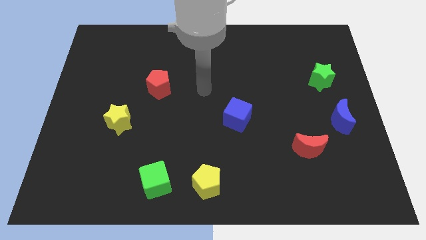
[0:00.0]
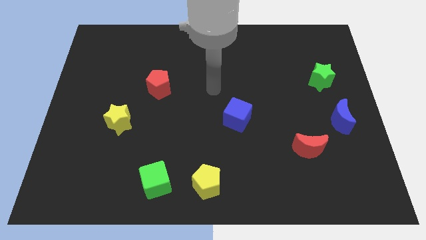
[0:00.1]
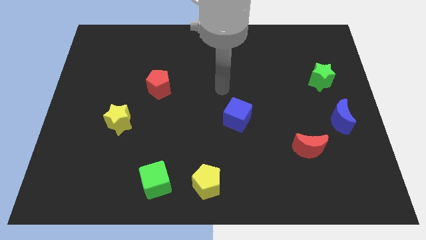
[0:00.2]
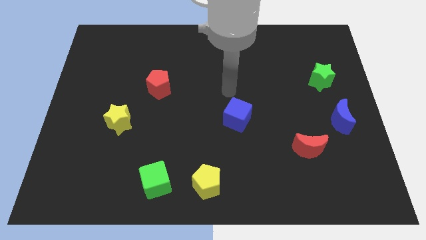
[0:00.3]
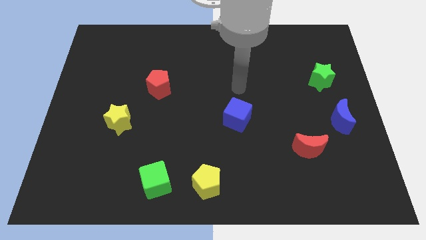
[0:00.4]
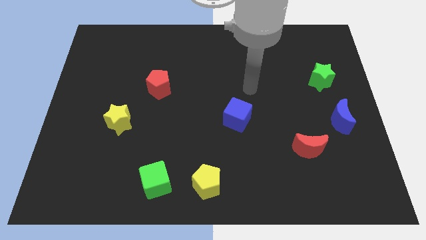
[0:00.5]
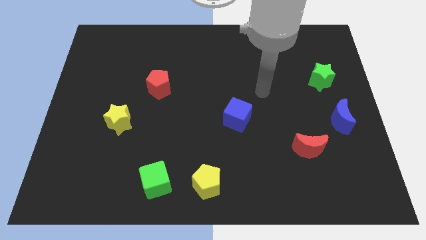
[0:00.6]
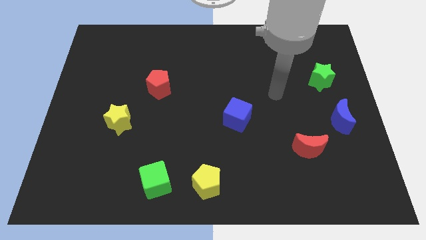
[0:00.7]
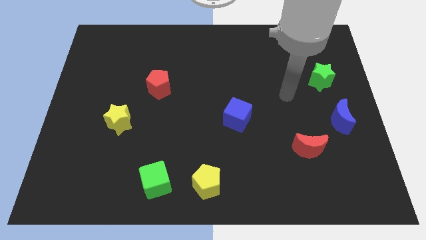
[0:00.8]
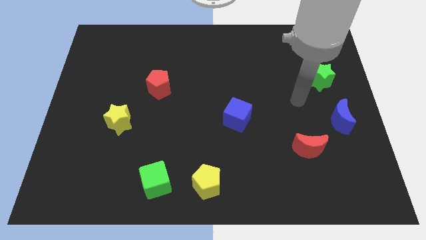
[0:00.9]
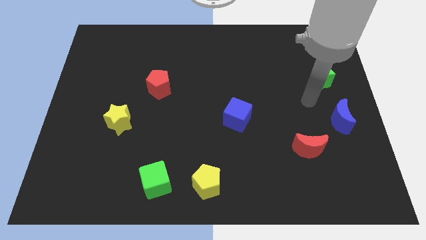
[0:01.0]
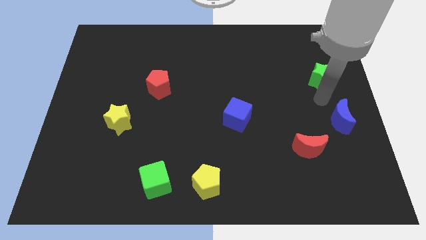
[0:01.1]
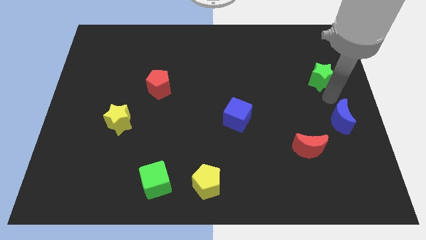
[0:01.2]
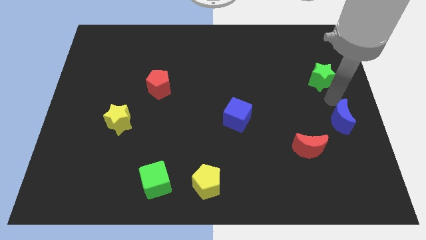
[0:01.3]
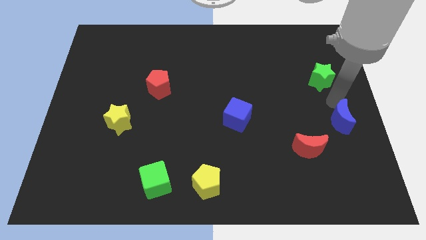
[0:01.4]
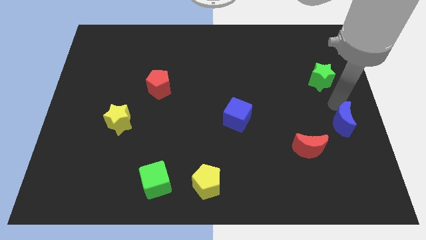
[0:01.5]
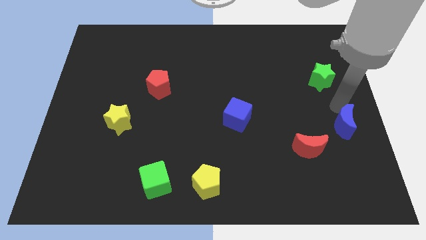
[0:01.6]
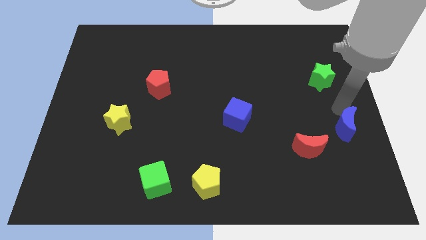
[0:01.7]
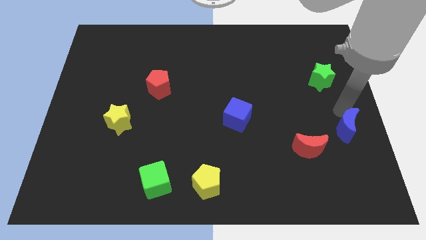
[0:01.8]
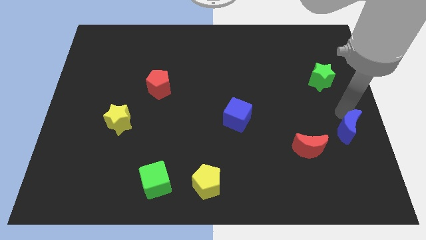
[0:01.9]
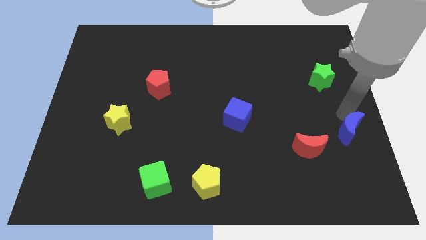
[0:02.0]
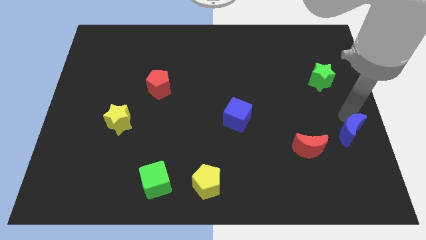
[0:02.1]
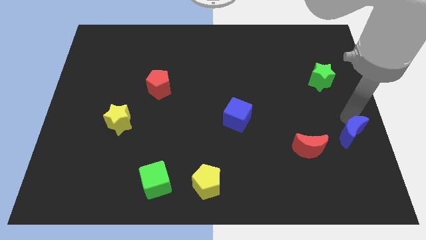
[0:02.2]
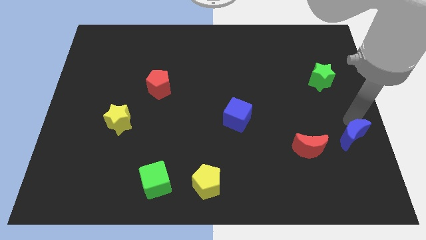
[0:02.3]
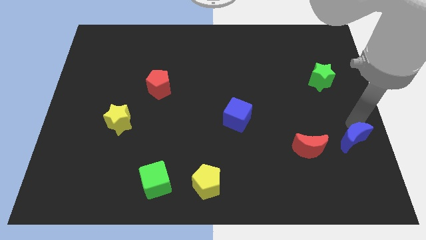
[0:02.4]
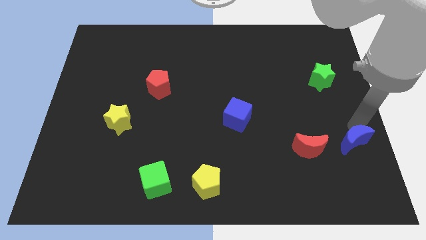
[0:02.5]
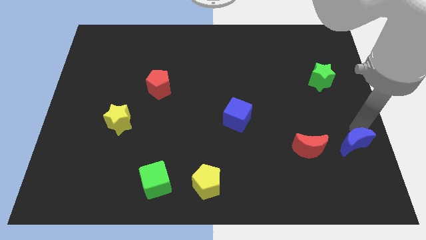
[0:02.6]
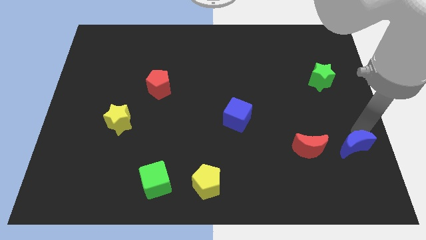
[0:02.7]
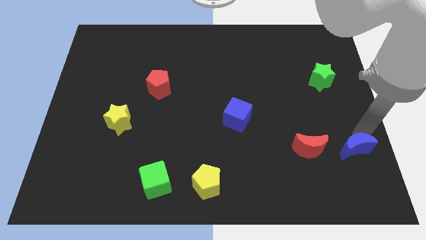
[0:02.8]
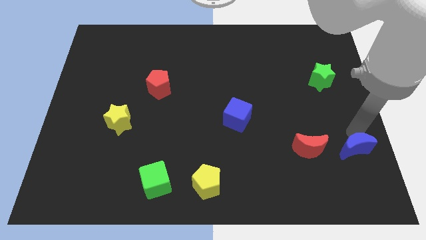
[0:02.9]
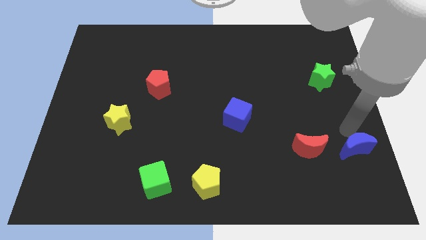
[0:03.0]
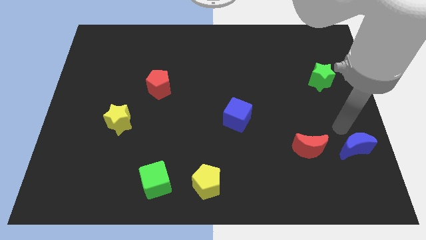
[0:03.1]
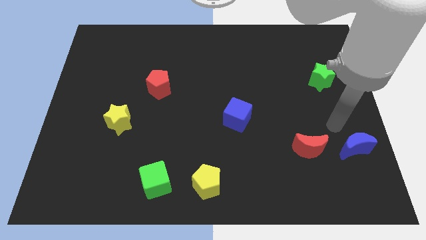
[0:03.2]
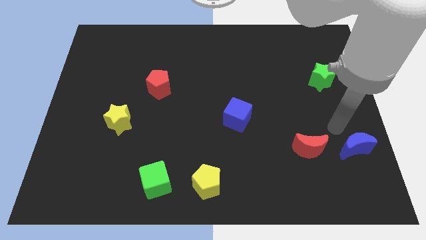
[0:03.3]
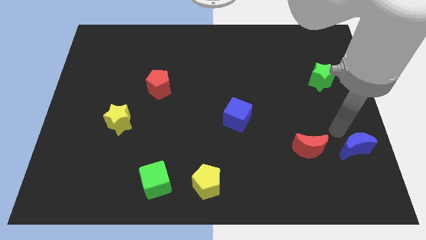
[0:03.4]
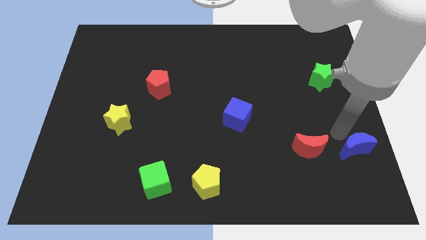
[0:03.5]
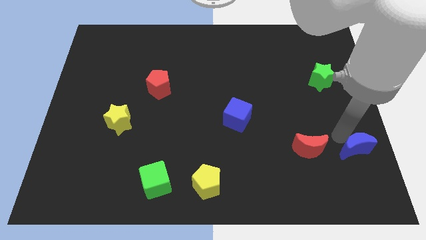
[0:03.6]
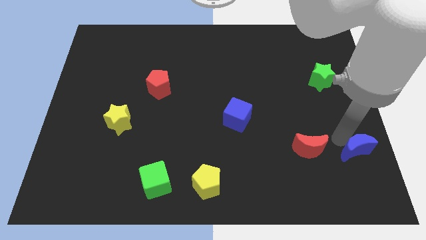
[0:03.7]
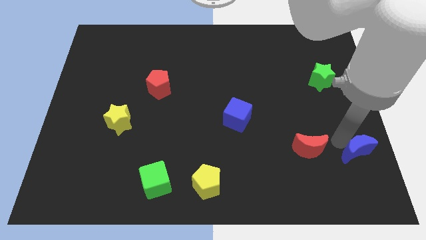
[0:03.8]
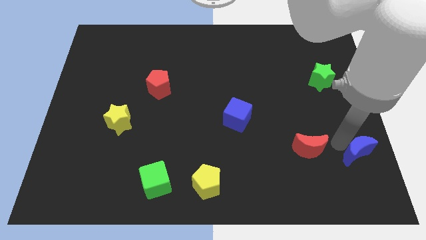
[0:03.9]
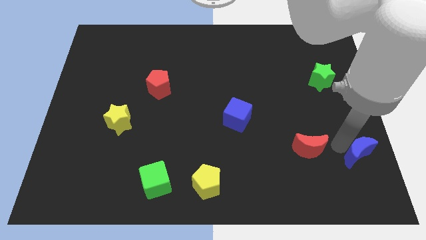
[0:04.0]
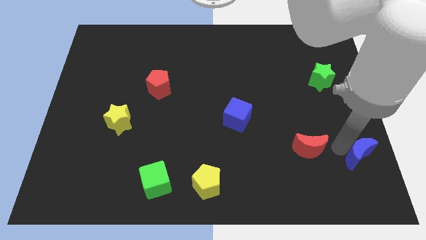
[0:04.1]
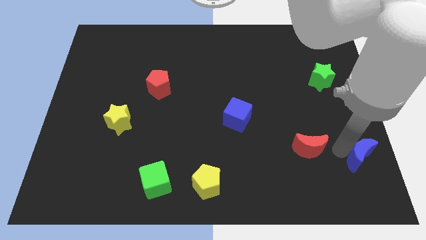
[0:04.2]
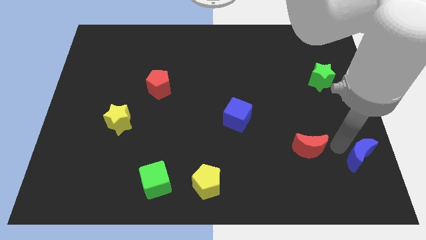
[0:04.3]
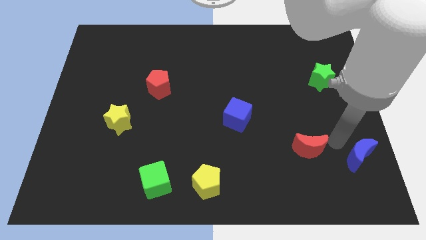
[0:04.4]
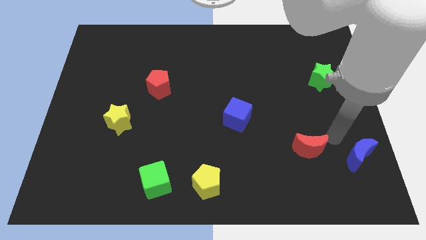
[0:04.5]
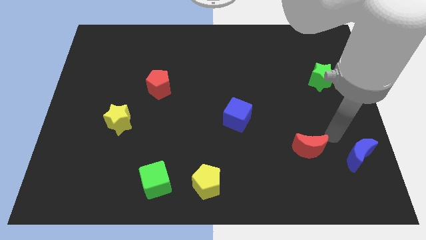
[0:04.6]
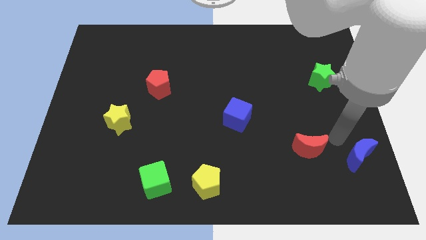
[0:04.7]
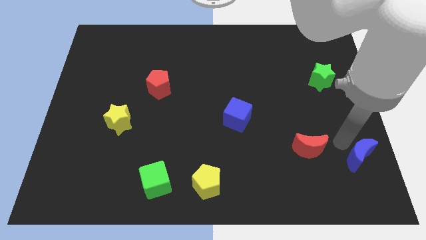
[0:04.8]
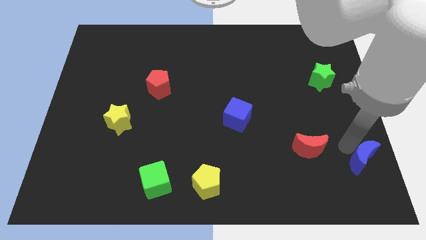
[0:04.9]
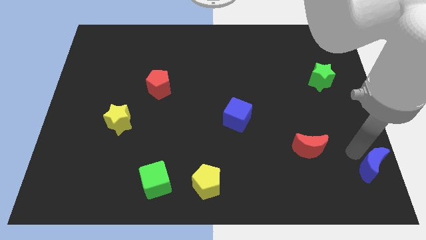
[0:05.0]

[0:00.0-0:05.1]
move the blue moon to the lower right corner

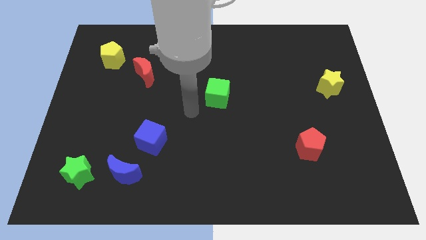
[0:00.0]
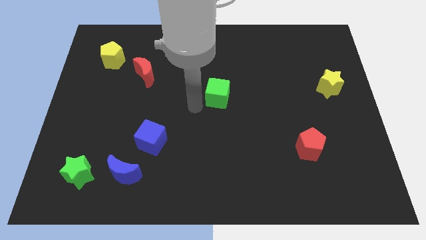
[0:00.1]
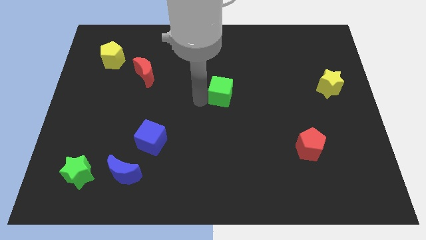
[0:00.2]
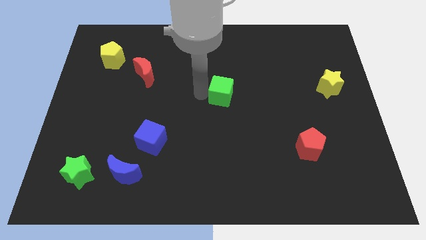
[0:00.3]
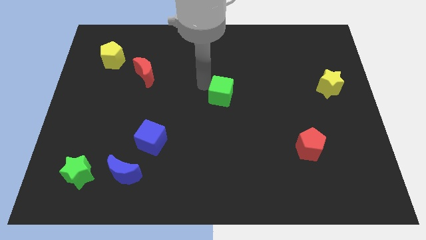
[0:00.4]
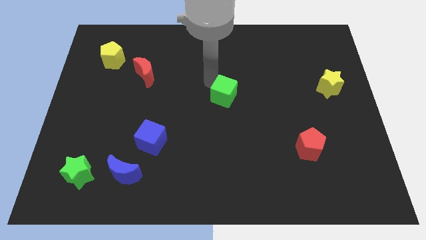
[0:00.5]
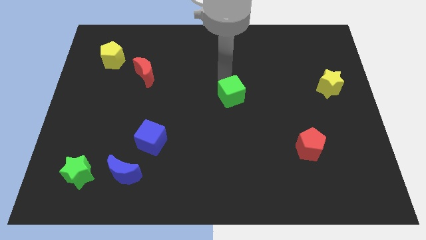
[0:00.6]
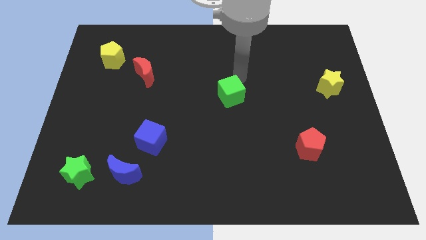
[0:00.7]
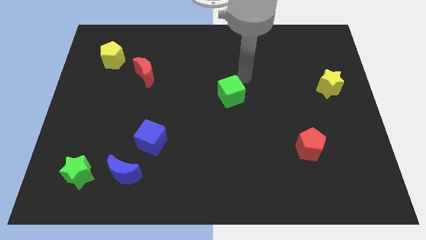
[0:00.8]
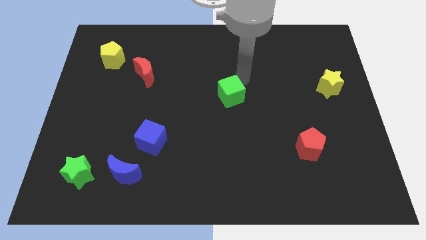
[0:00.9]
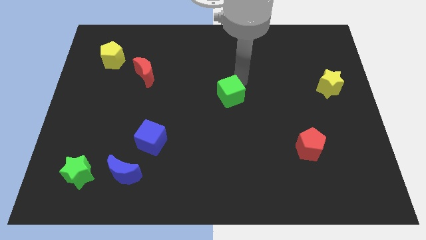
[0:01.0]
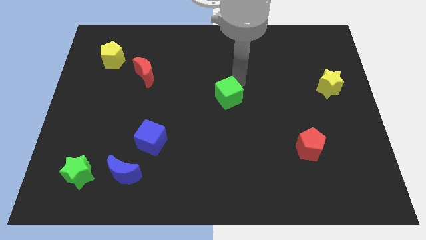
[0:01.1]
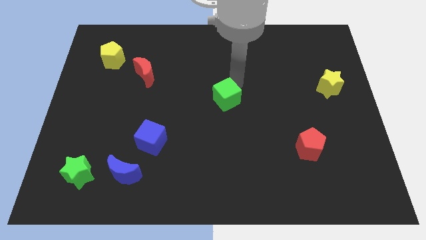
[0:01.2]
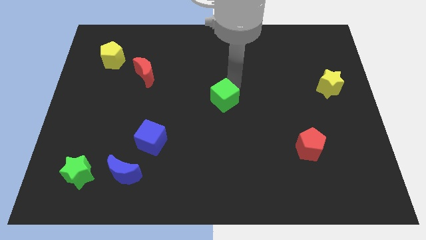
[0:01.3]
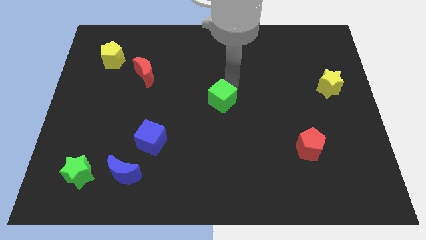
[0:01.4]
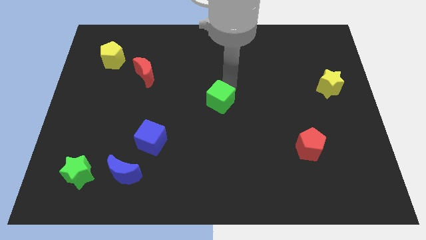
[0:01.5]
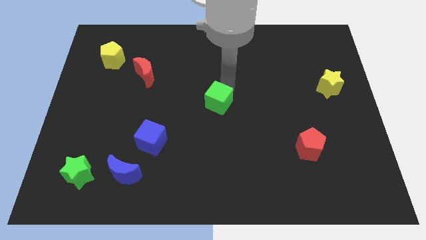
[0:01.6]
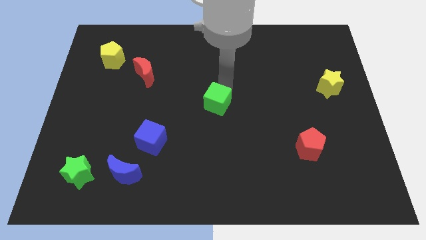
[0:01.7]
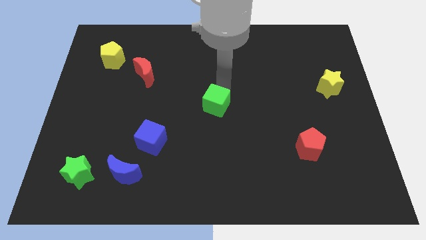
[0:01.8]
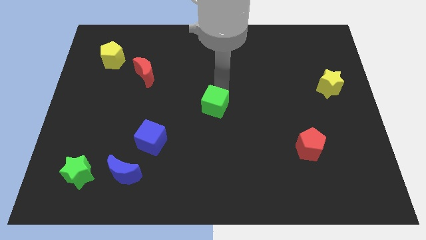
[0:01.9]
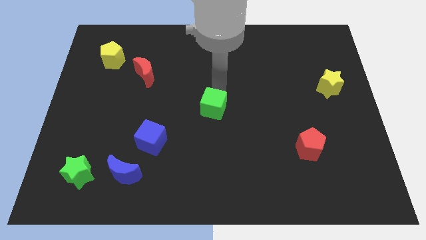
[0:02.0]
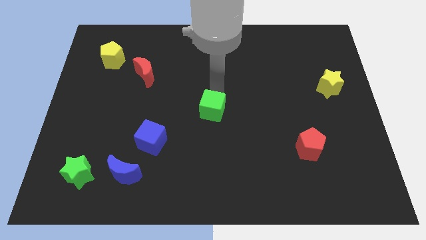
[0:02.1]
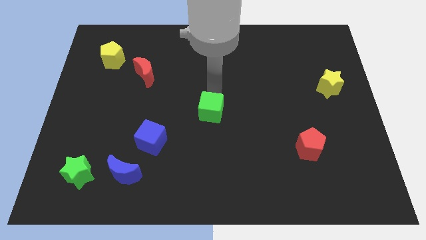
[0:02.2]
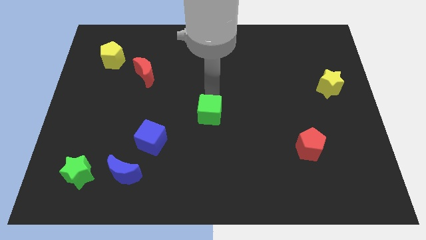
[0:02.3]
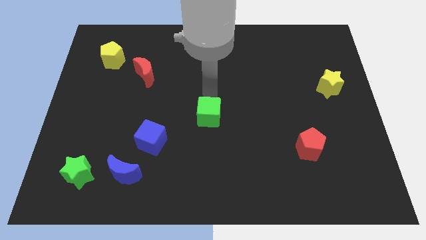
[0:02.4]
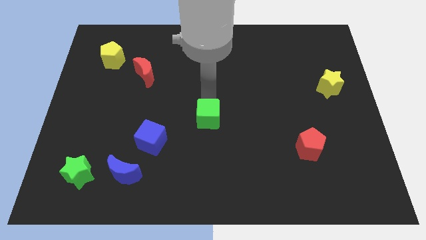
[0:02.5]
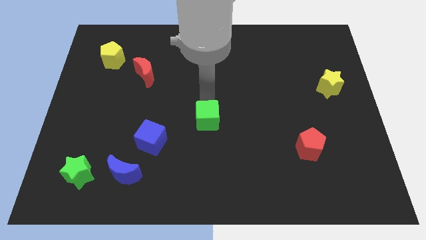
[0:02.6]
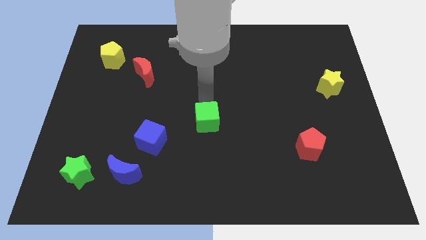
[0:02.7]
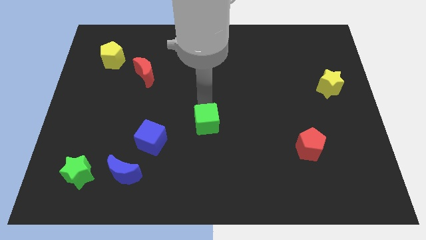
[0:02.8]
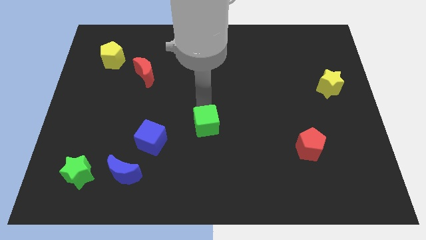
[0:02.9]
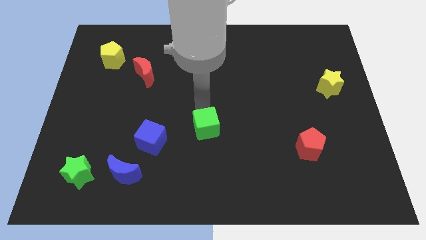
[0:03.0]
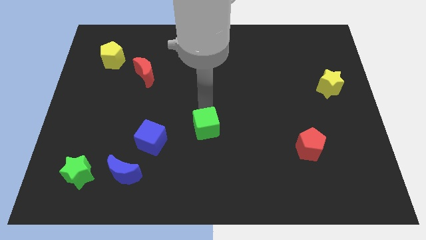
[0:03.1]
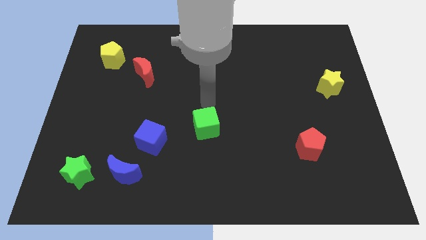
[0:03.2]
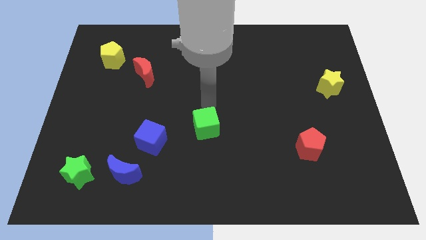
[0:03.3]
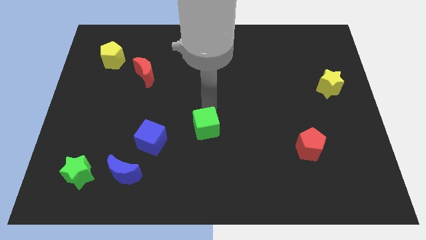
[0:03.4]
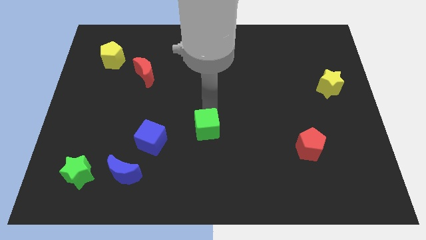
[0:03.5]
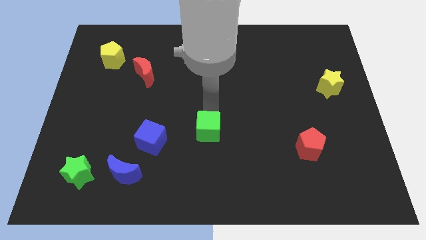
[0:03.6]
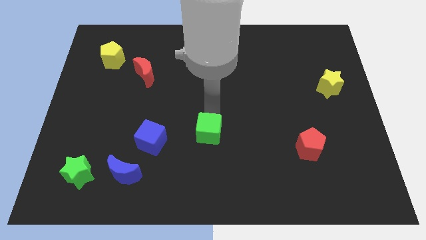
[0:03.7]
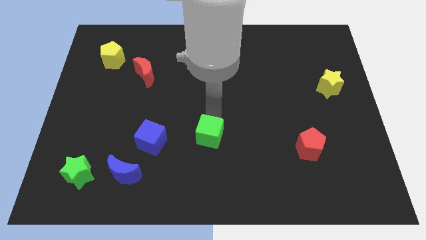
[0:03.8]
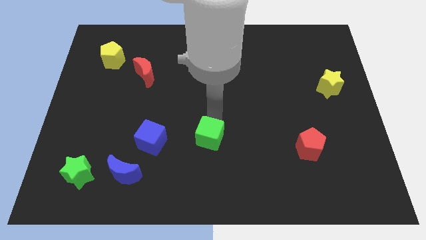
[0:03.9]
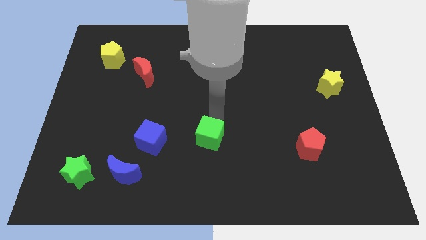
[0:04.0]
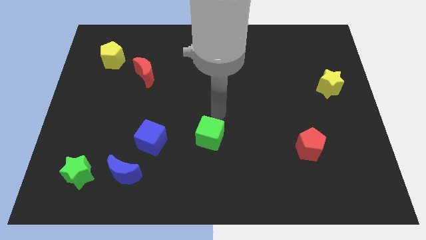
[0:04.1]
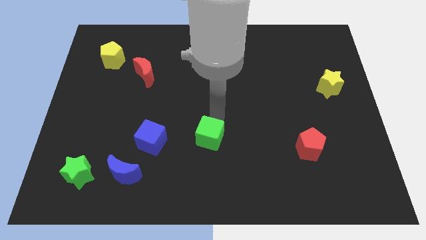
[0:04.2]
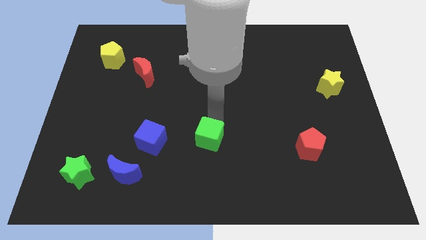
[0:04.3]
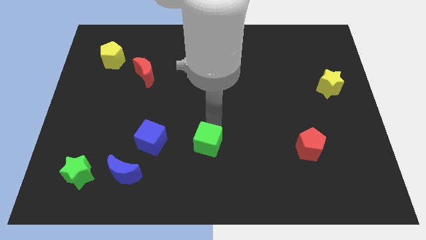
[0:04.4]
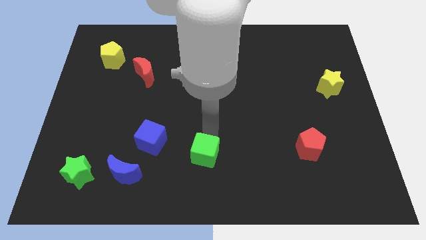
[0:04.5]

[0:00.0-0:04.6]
slide the green cube to the bottom side
